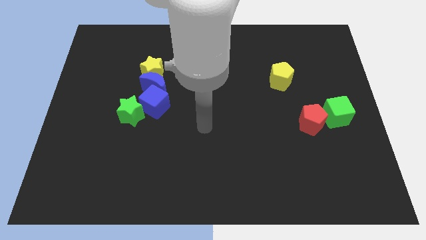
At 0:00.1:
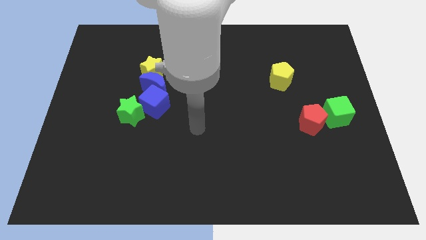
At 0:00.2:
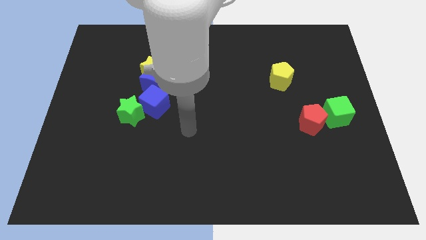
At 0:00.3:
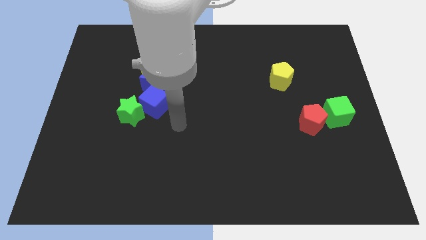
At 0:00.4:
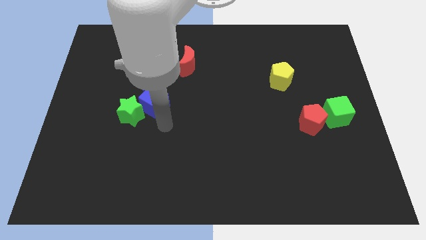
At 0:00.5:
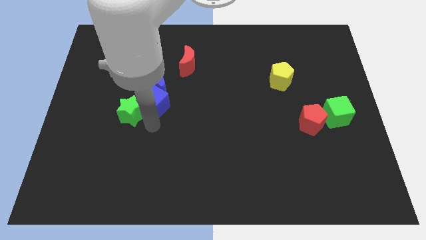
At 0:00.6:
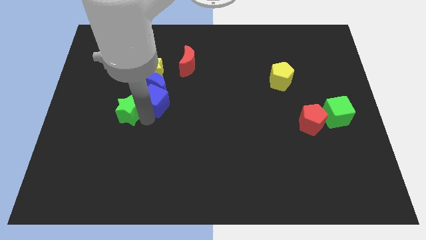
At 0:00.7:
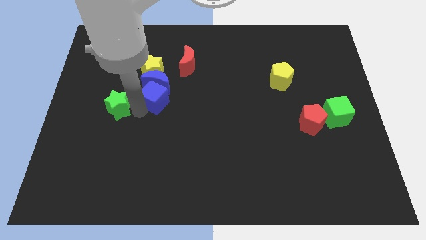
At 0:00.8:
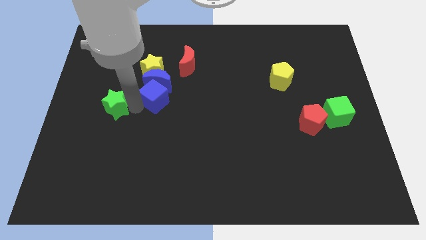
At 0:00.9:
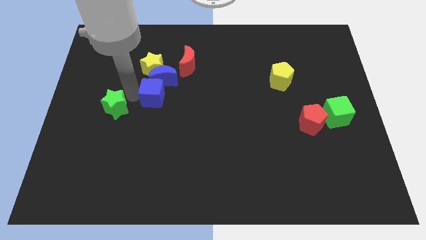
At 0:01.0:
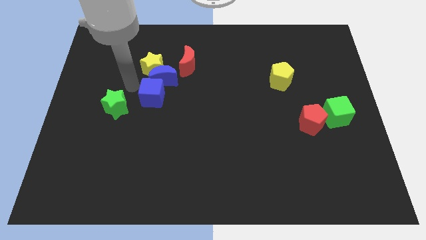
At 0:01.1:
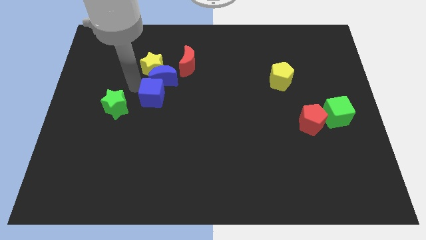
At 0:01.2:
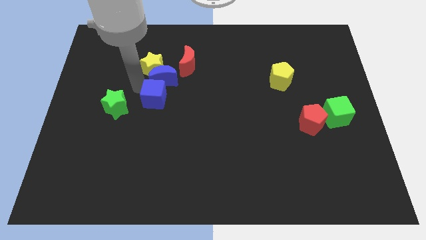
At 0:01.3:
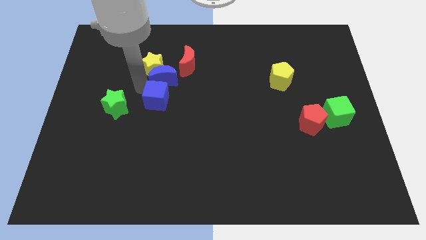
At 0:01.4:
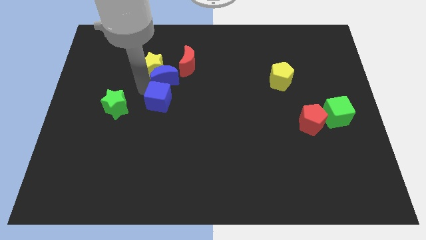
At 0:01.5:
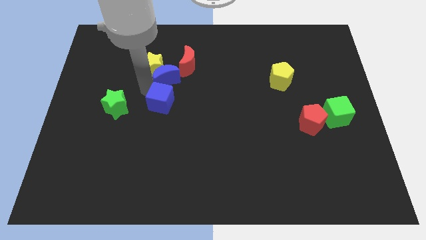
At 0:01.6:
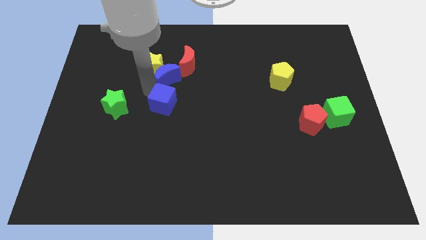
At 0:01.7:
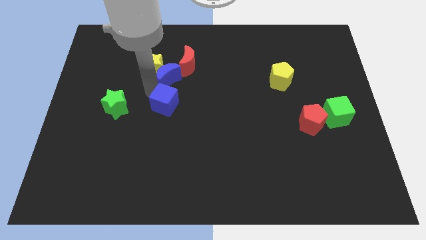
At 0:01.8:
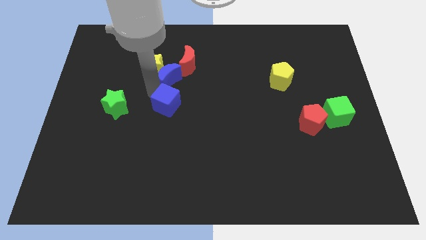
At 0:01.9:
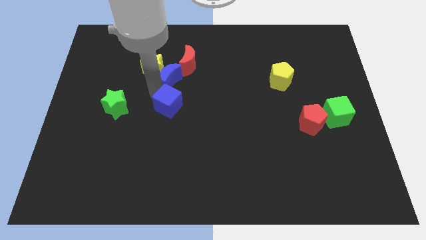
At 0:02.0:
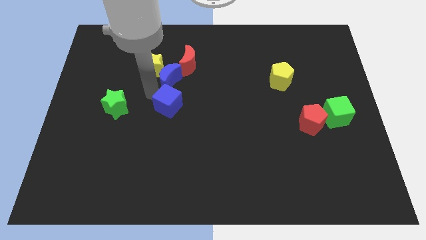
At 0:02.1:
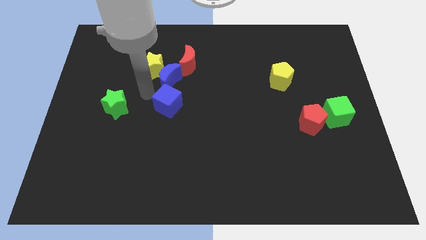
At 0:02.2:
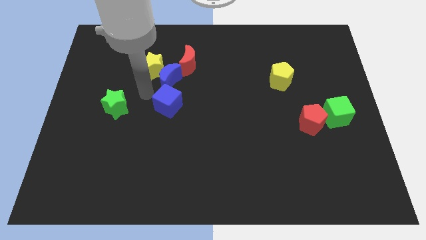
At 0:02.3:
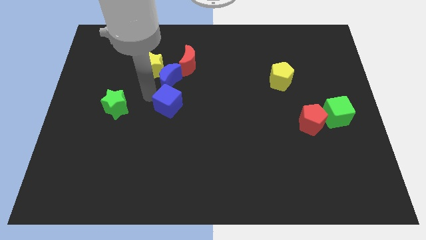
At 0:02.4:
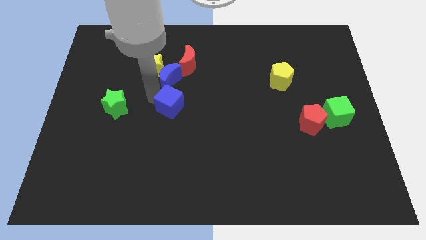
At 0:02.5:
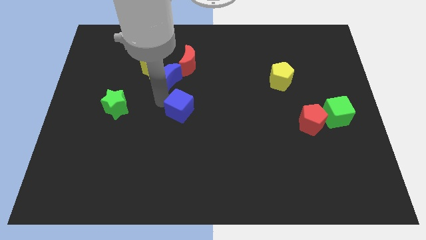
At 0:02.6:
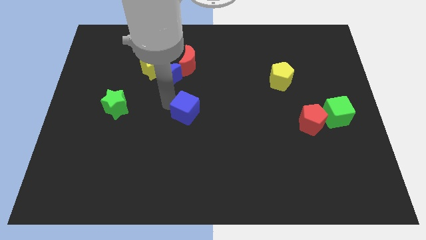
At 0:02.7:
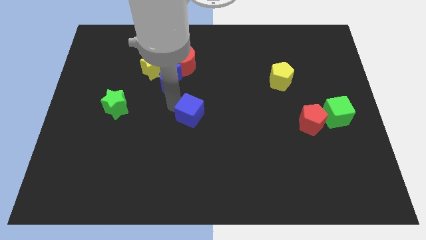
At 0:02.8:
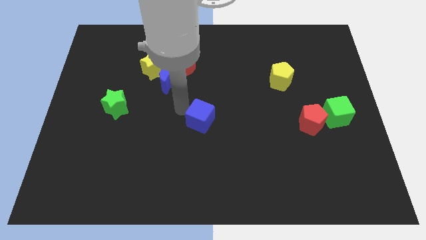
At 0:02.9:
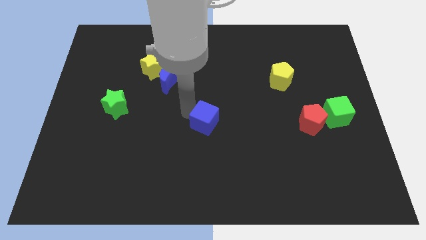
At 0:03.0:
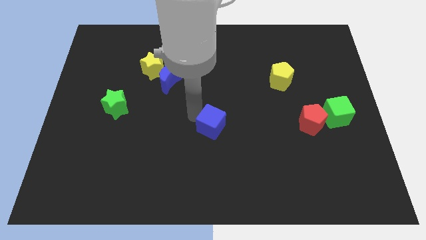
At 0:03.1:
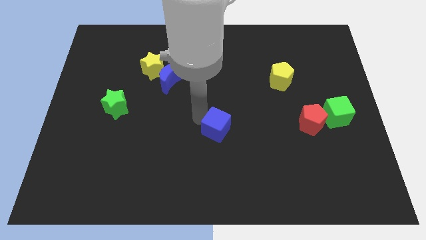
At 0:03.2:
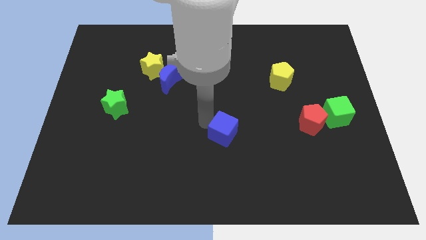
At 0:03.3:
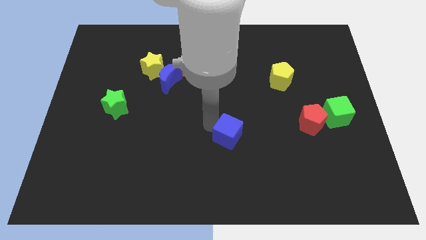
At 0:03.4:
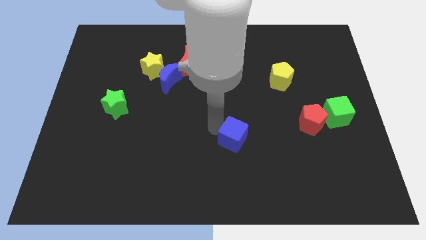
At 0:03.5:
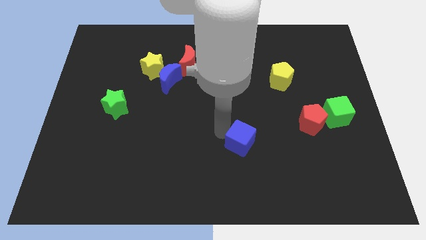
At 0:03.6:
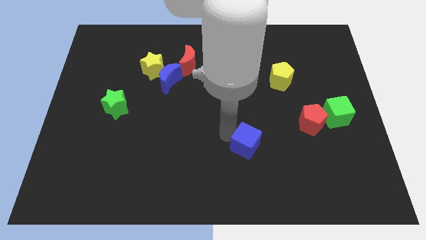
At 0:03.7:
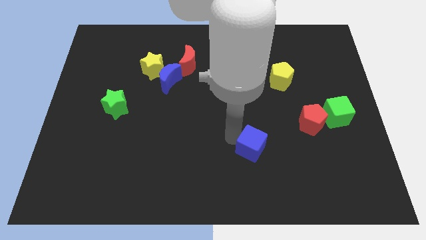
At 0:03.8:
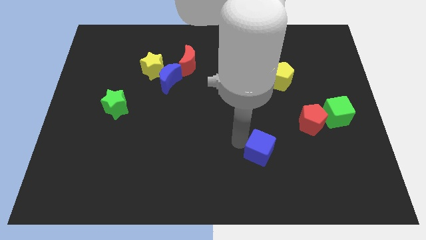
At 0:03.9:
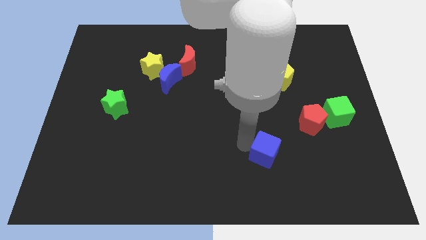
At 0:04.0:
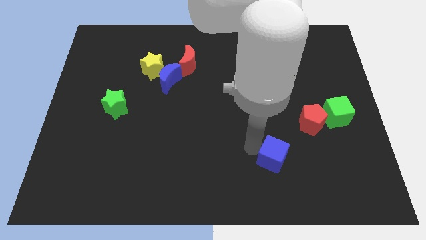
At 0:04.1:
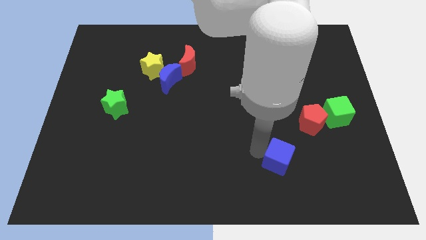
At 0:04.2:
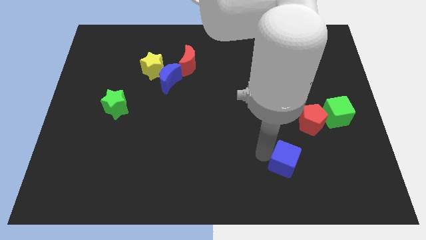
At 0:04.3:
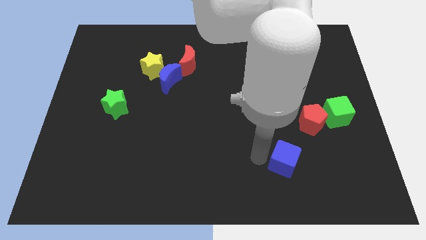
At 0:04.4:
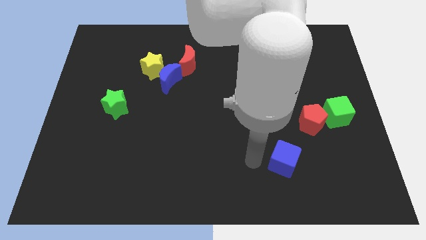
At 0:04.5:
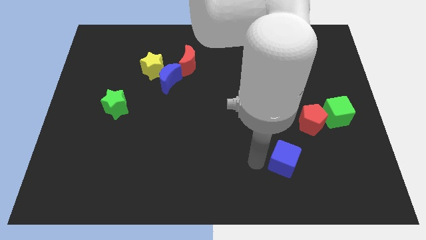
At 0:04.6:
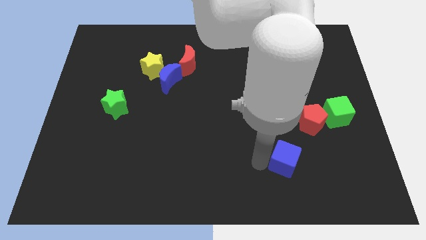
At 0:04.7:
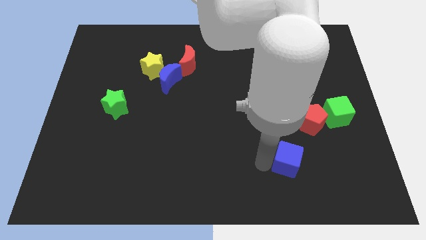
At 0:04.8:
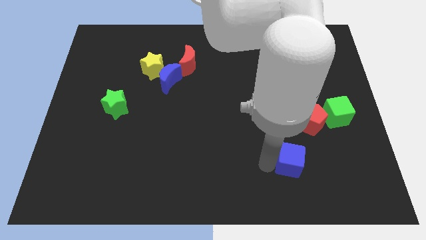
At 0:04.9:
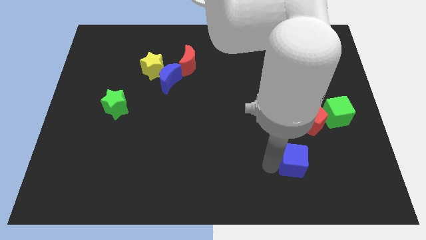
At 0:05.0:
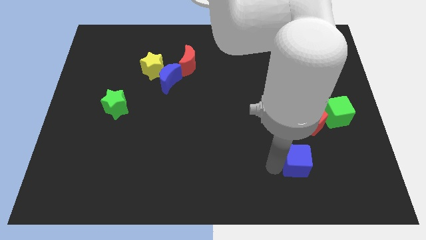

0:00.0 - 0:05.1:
put the blue cube to the bottom of the red pentagon
